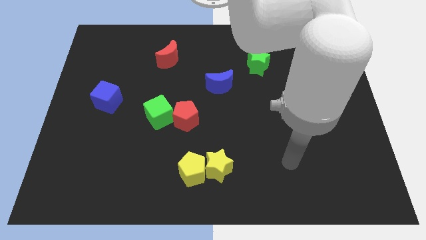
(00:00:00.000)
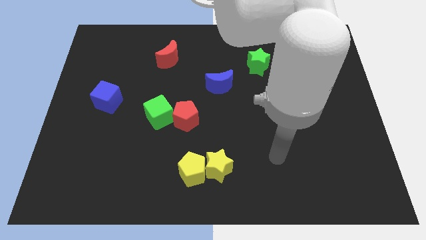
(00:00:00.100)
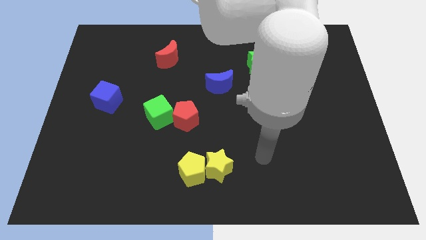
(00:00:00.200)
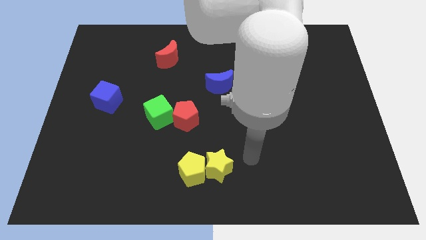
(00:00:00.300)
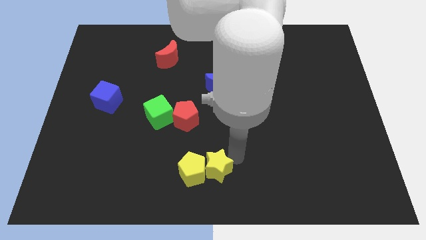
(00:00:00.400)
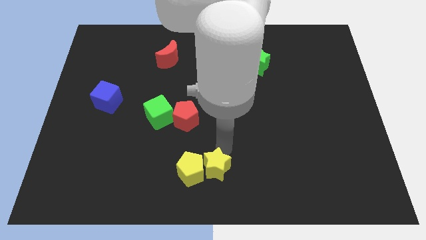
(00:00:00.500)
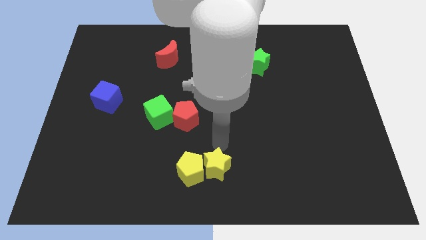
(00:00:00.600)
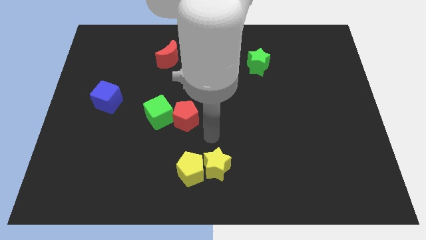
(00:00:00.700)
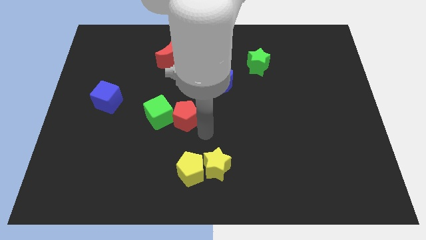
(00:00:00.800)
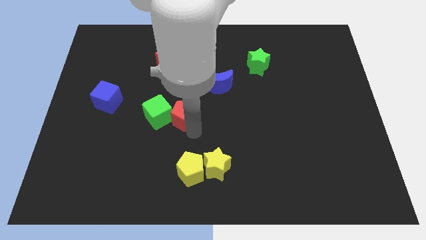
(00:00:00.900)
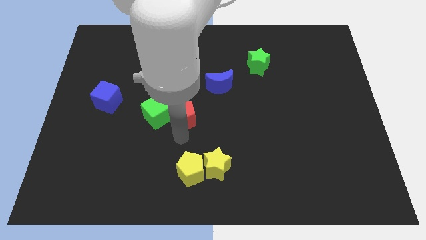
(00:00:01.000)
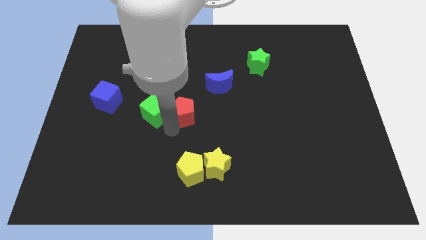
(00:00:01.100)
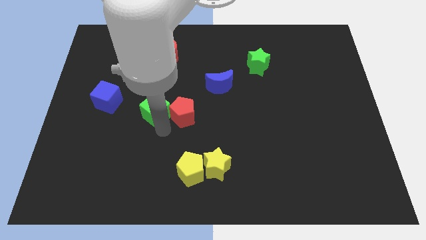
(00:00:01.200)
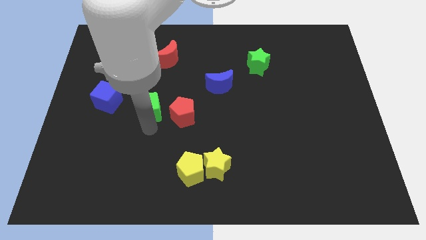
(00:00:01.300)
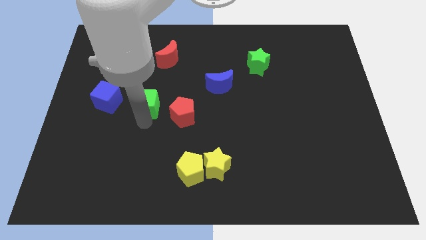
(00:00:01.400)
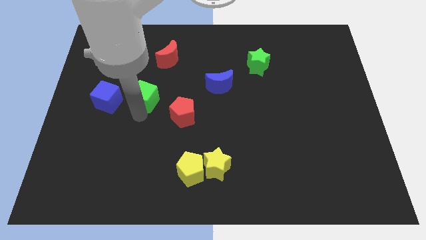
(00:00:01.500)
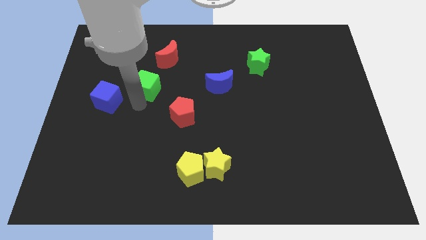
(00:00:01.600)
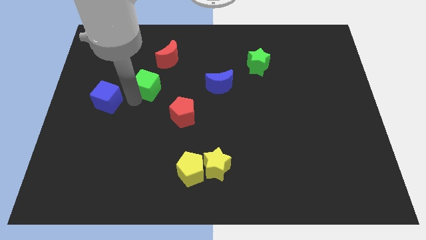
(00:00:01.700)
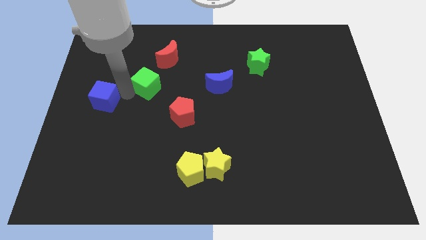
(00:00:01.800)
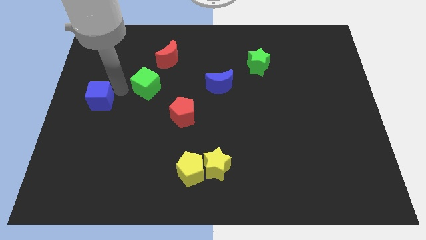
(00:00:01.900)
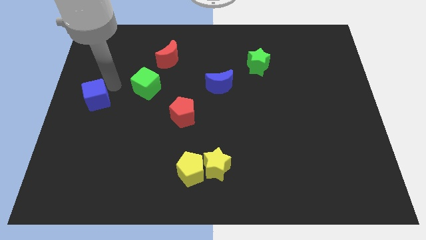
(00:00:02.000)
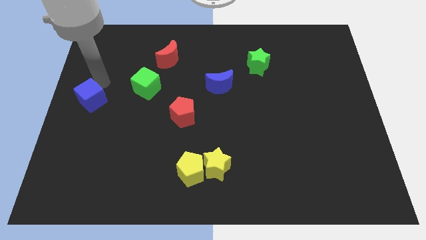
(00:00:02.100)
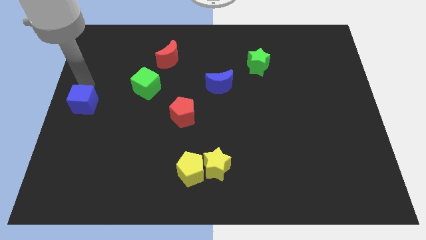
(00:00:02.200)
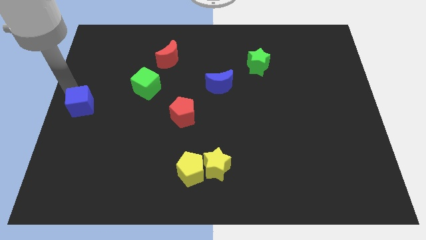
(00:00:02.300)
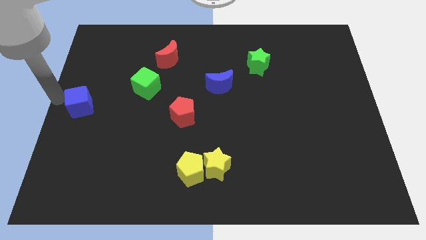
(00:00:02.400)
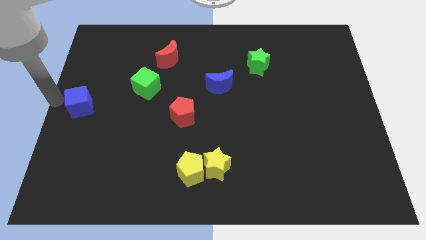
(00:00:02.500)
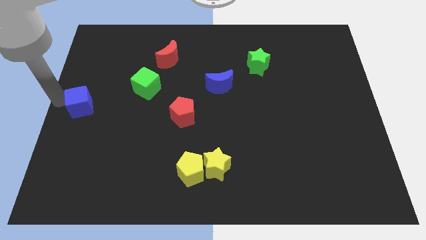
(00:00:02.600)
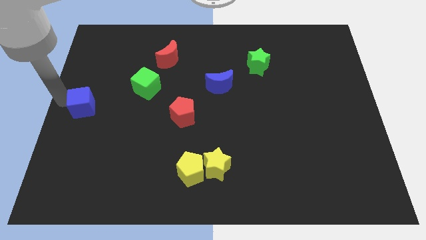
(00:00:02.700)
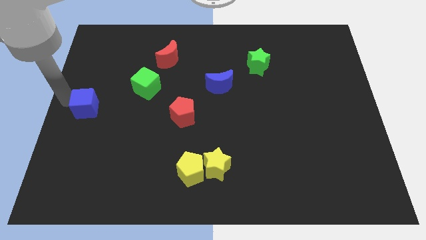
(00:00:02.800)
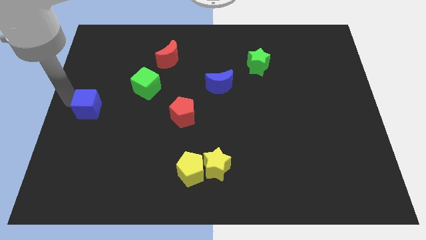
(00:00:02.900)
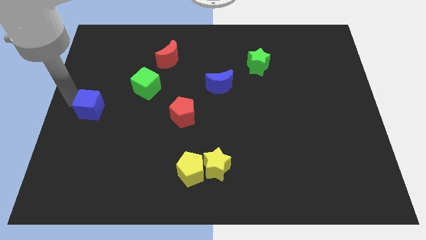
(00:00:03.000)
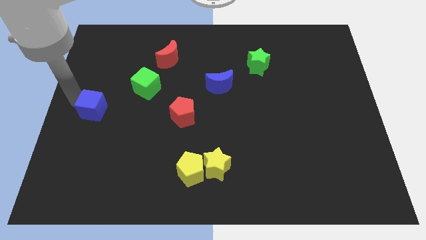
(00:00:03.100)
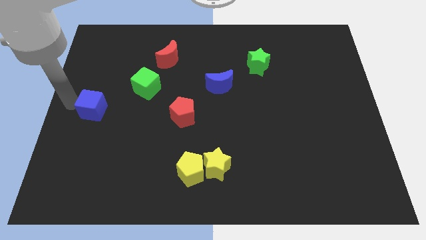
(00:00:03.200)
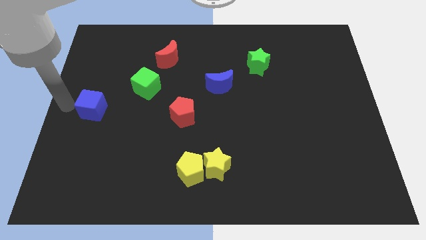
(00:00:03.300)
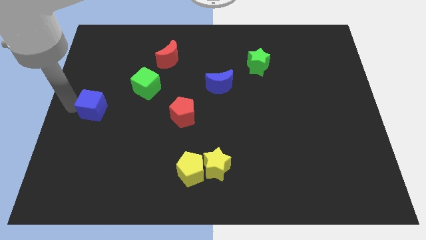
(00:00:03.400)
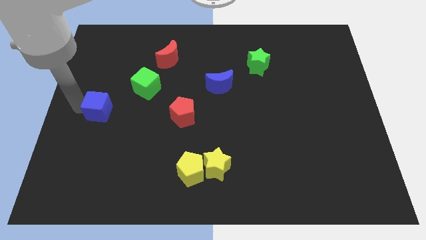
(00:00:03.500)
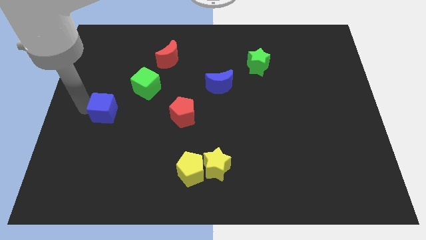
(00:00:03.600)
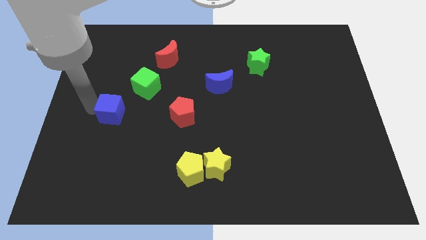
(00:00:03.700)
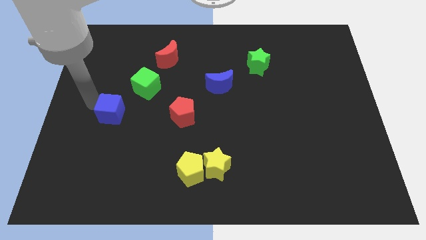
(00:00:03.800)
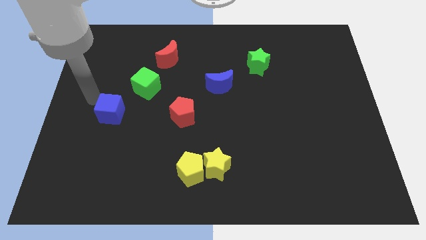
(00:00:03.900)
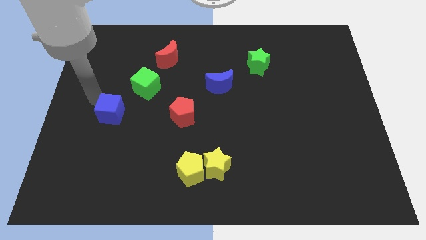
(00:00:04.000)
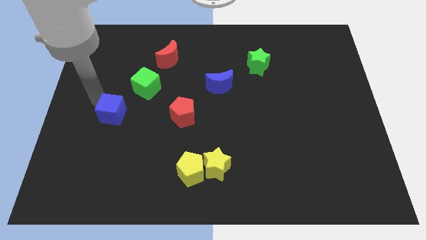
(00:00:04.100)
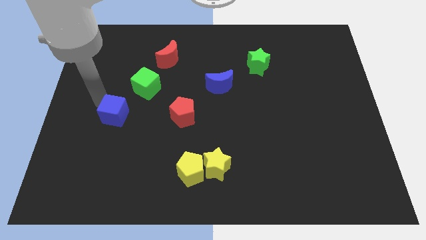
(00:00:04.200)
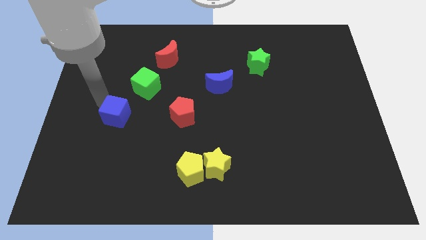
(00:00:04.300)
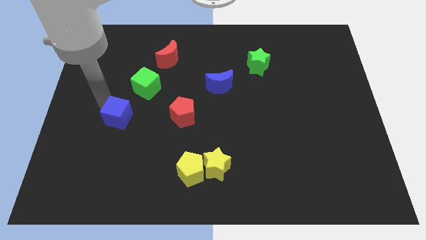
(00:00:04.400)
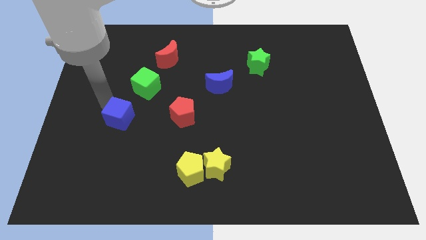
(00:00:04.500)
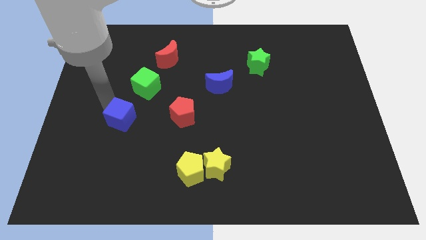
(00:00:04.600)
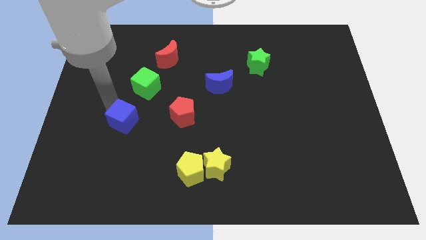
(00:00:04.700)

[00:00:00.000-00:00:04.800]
slide the blue cube slightly down and right

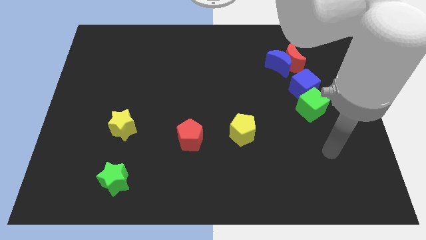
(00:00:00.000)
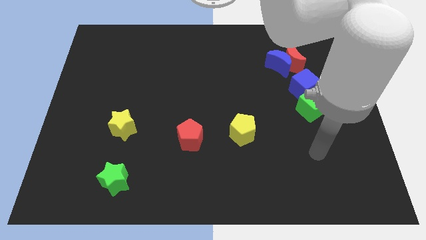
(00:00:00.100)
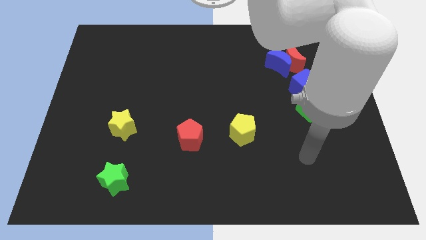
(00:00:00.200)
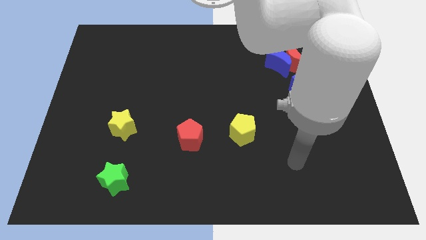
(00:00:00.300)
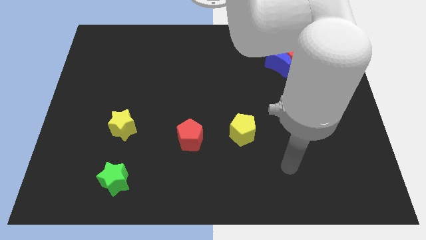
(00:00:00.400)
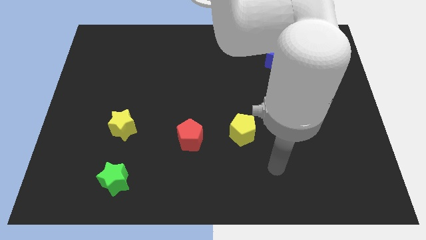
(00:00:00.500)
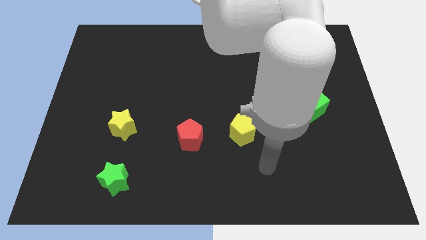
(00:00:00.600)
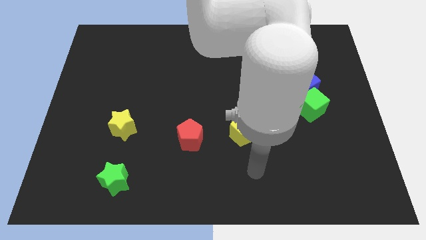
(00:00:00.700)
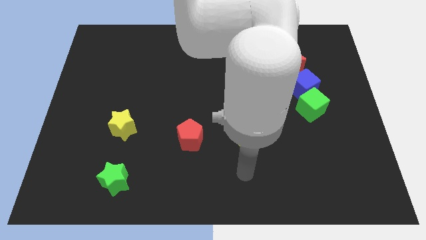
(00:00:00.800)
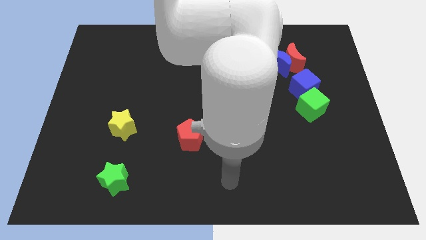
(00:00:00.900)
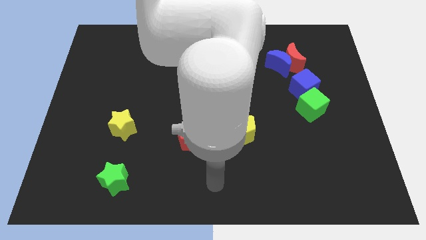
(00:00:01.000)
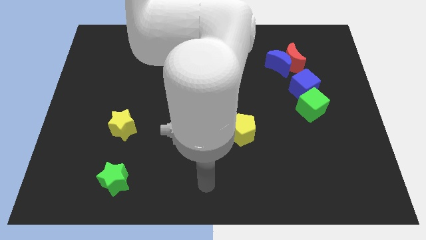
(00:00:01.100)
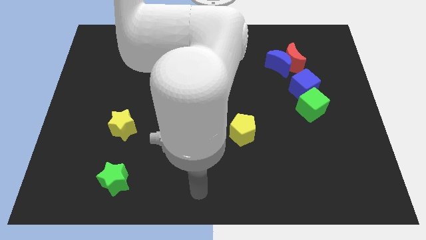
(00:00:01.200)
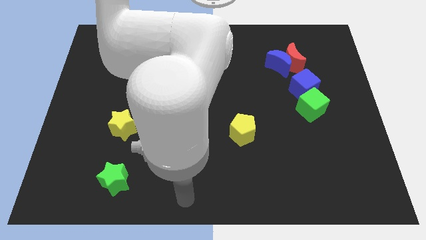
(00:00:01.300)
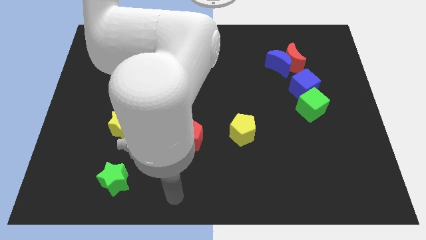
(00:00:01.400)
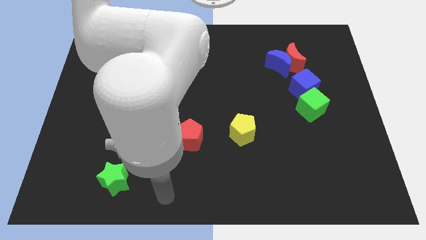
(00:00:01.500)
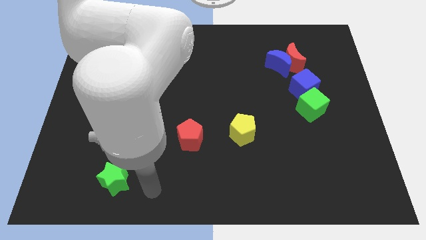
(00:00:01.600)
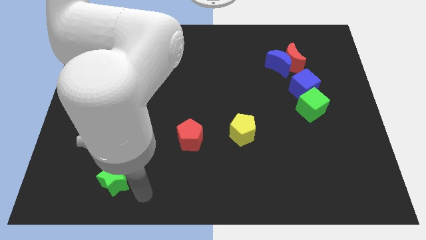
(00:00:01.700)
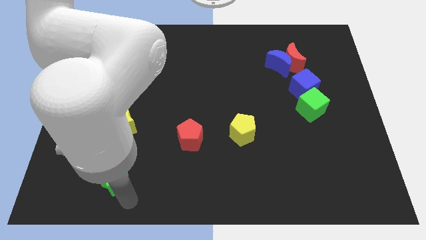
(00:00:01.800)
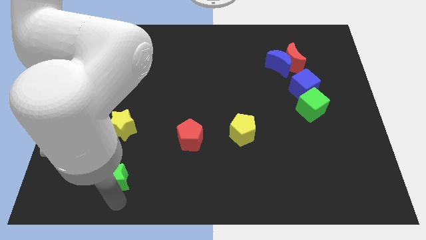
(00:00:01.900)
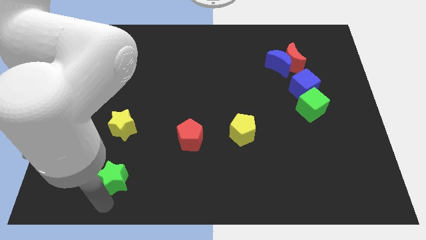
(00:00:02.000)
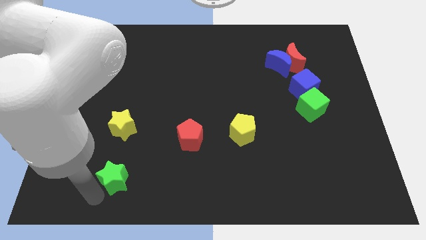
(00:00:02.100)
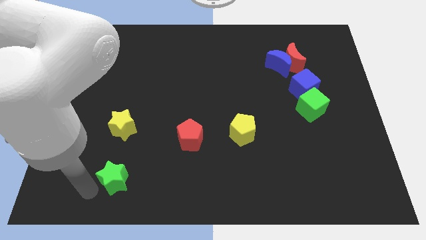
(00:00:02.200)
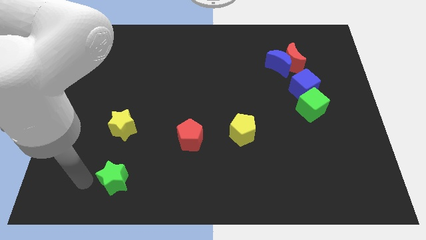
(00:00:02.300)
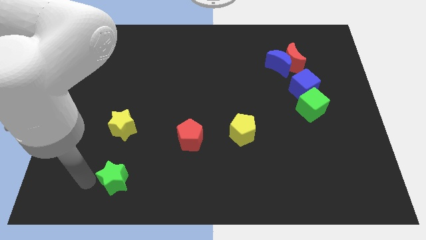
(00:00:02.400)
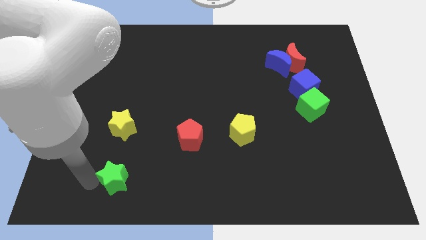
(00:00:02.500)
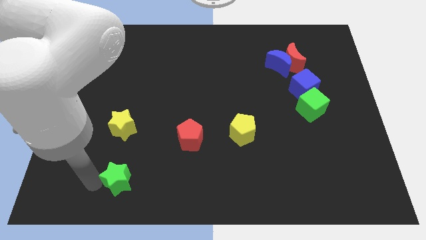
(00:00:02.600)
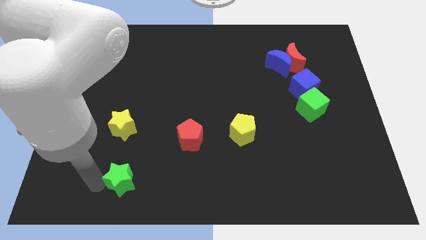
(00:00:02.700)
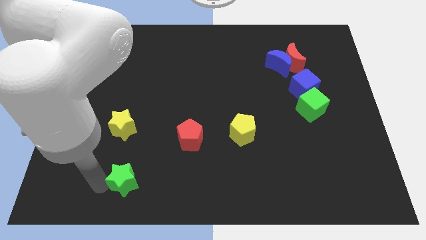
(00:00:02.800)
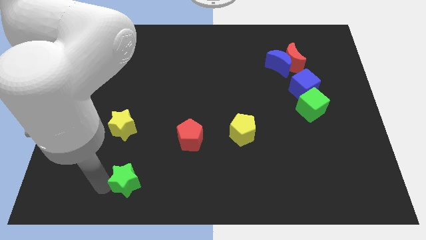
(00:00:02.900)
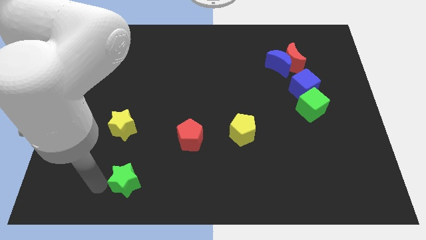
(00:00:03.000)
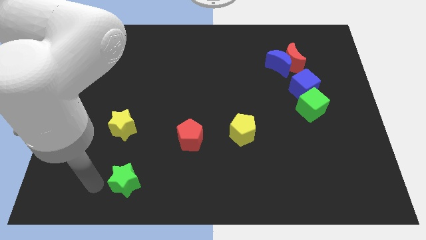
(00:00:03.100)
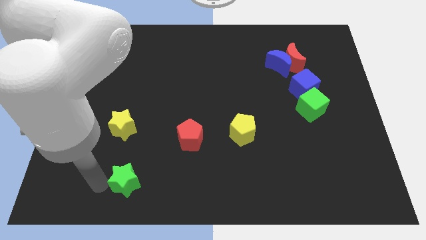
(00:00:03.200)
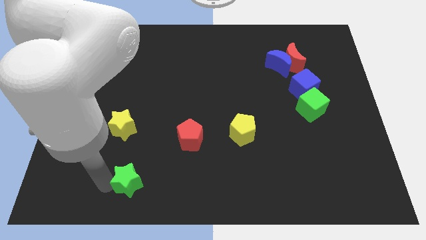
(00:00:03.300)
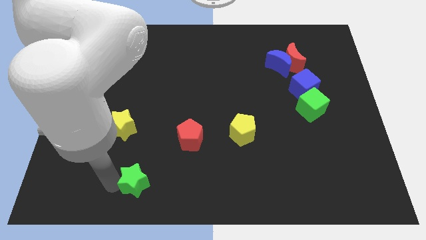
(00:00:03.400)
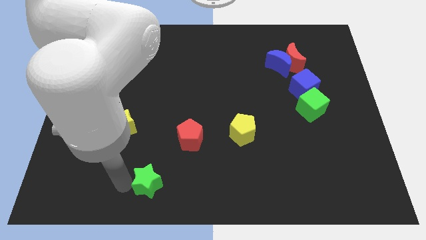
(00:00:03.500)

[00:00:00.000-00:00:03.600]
move the green star right slightly
